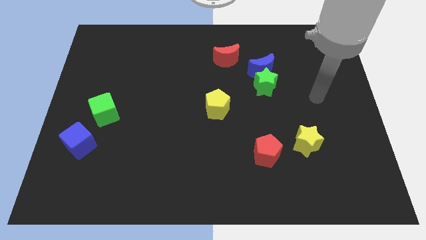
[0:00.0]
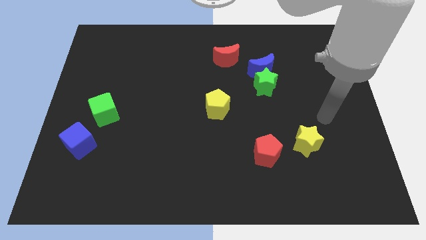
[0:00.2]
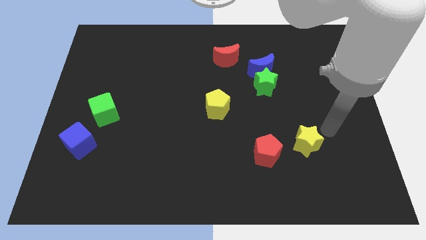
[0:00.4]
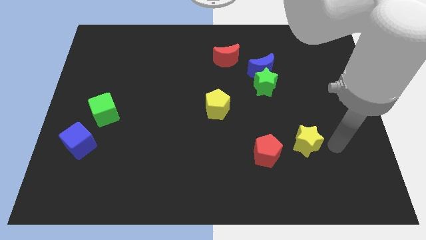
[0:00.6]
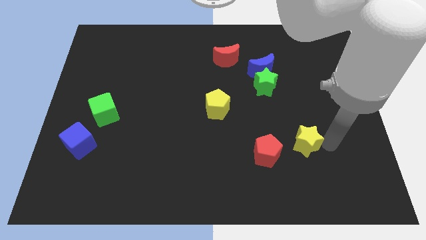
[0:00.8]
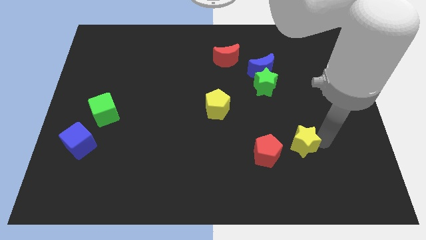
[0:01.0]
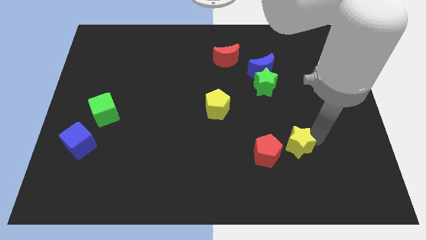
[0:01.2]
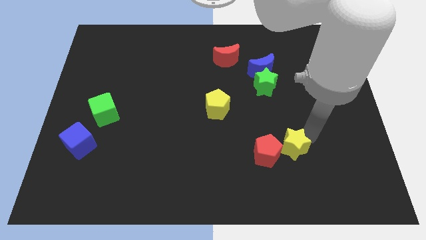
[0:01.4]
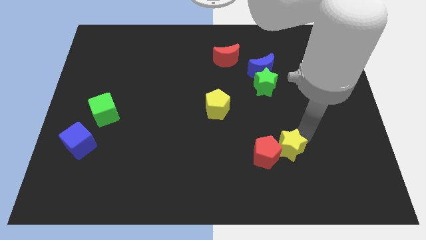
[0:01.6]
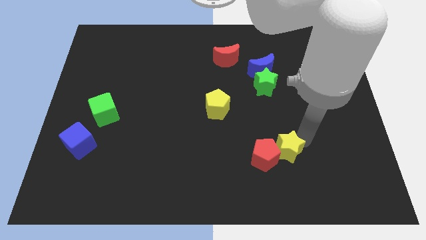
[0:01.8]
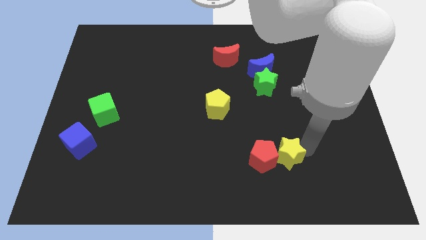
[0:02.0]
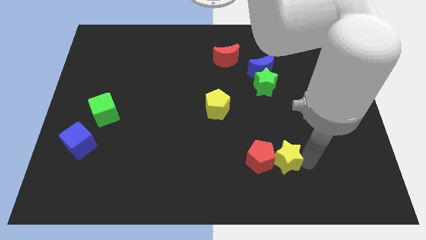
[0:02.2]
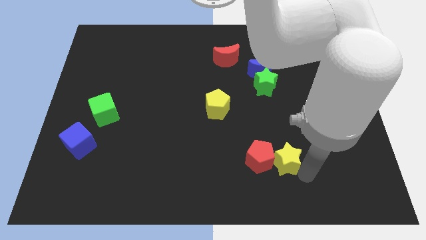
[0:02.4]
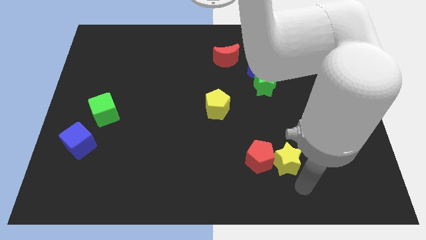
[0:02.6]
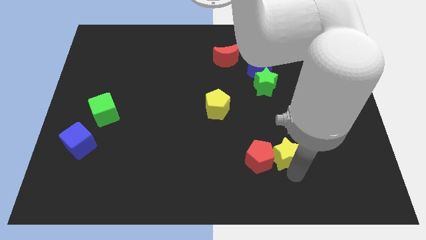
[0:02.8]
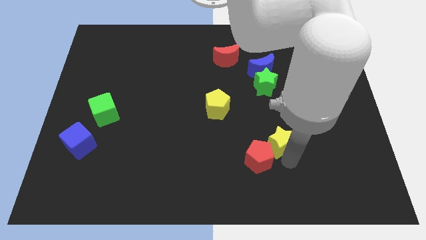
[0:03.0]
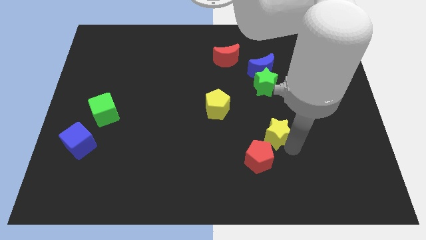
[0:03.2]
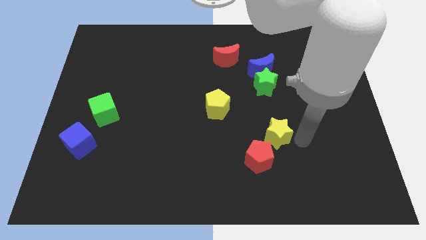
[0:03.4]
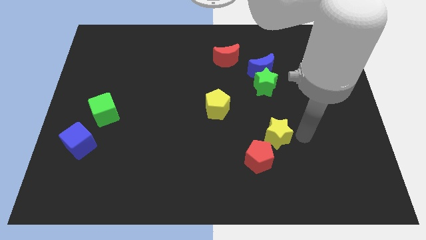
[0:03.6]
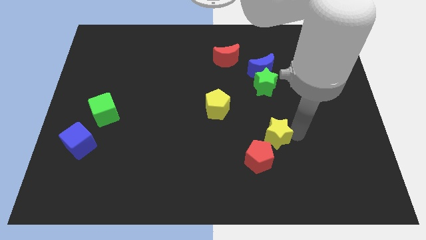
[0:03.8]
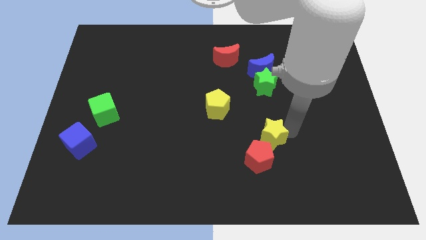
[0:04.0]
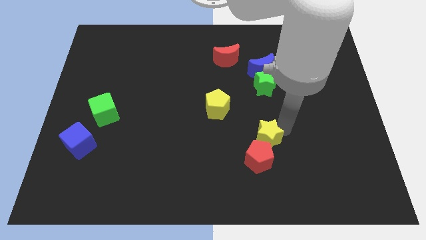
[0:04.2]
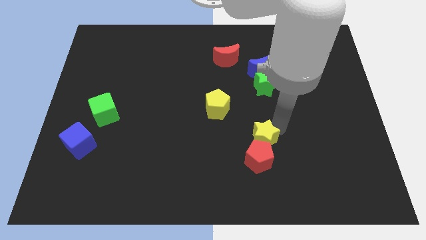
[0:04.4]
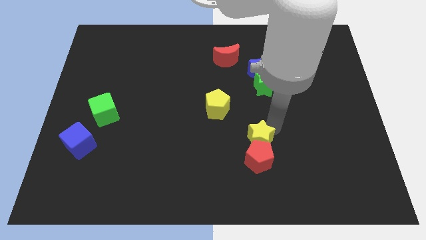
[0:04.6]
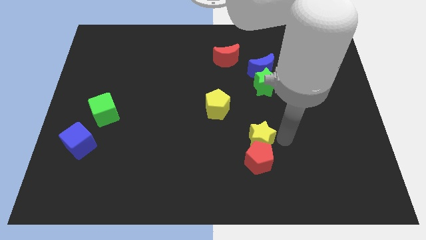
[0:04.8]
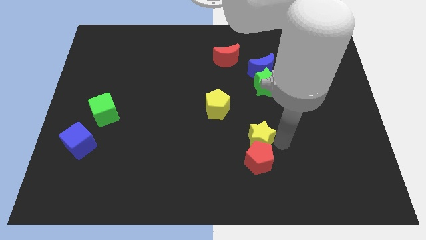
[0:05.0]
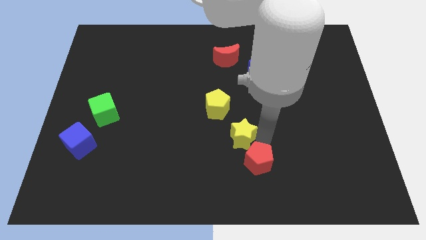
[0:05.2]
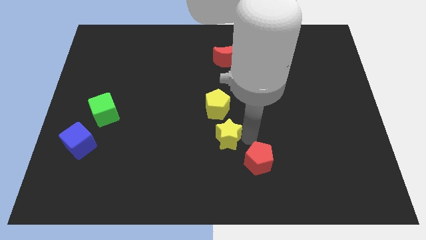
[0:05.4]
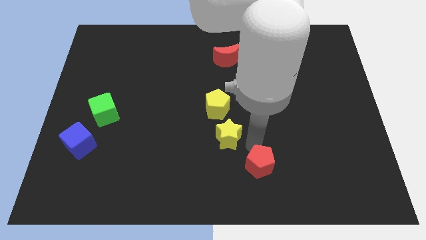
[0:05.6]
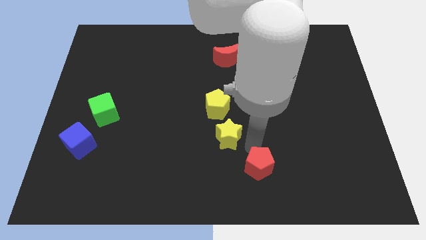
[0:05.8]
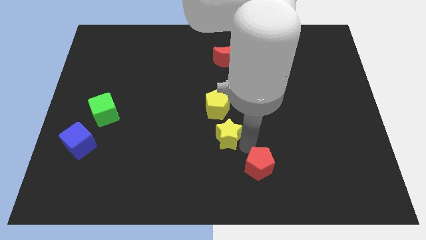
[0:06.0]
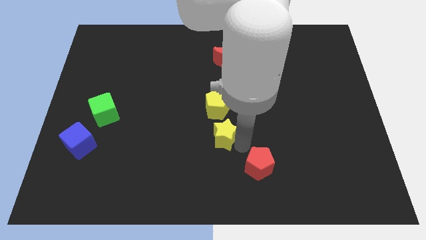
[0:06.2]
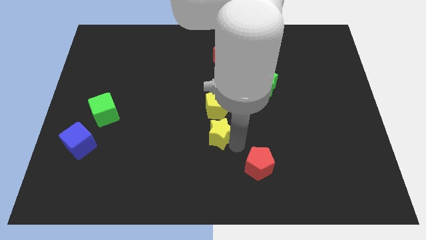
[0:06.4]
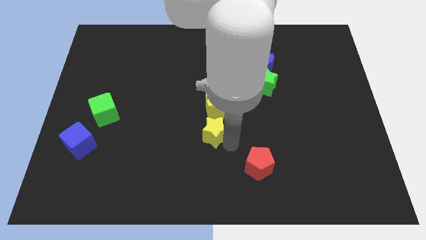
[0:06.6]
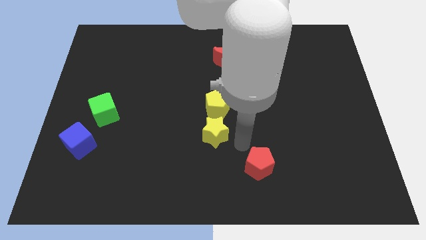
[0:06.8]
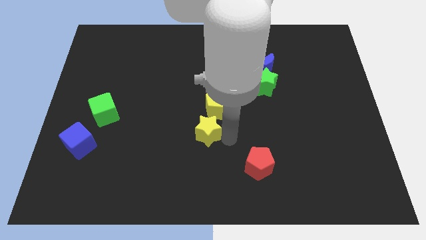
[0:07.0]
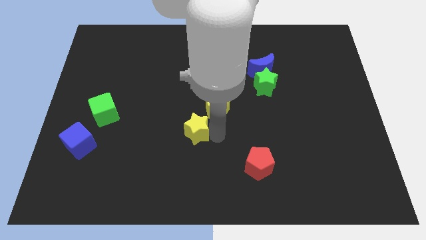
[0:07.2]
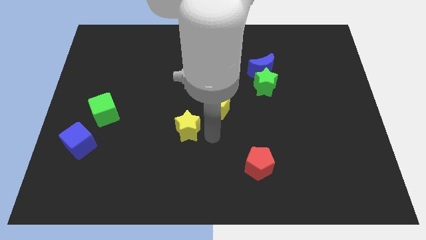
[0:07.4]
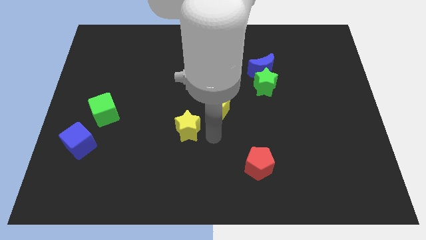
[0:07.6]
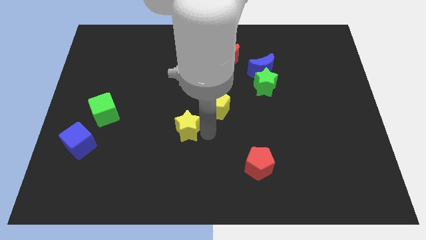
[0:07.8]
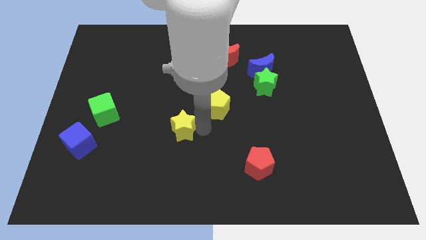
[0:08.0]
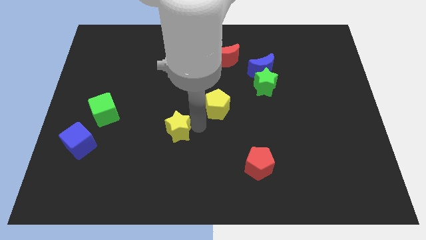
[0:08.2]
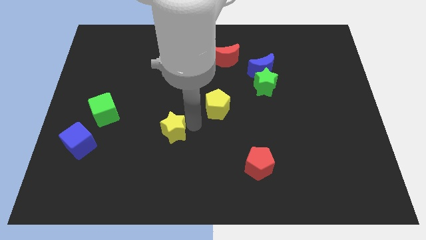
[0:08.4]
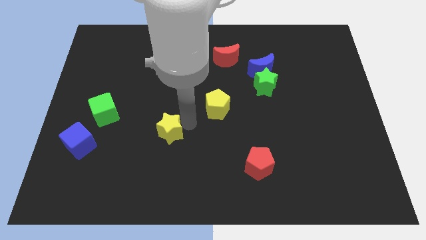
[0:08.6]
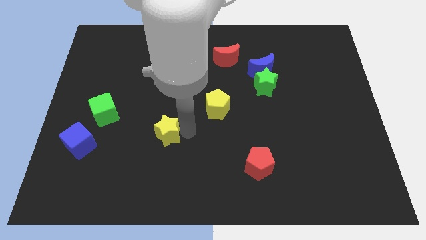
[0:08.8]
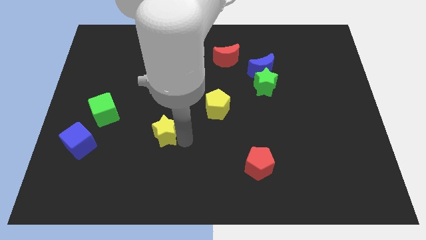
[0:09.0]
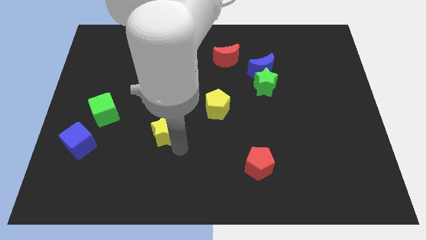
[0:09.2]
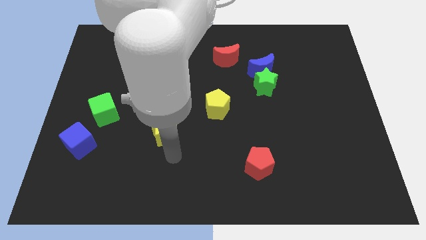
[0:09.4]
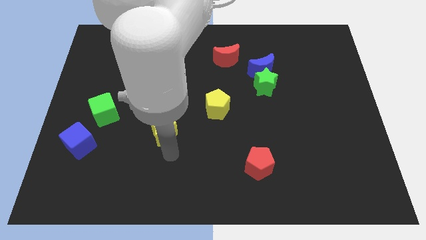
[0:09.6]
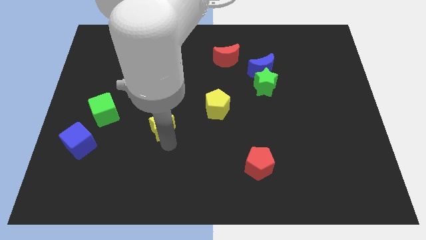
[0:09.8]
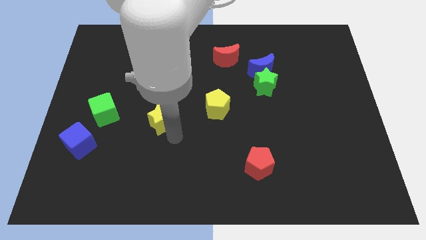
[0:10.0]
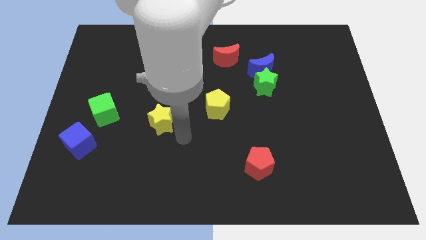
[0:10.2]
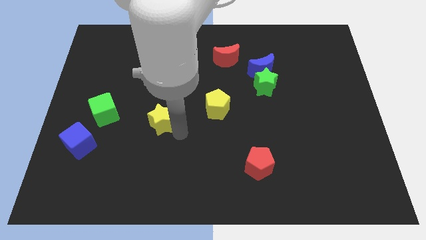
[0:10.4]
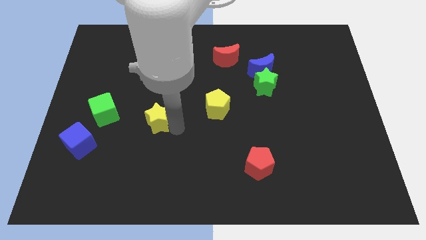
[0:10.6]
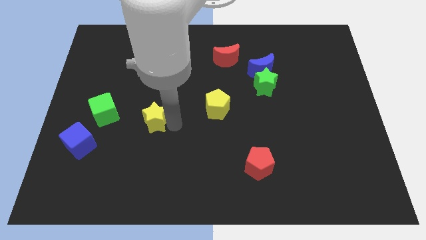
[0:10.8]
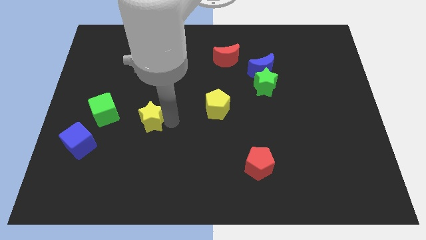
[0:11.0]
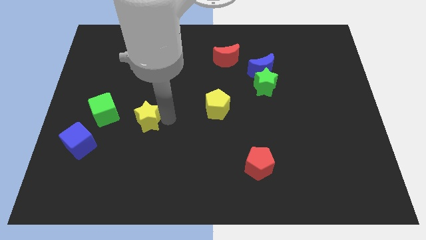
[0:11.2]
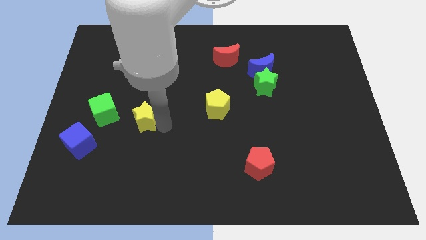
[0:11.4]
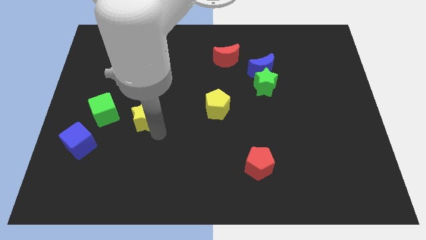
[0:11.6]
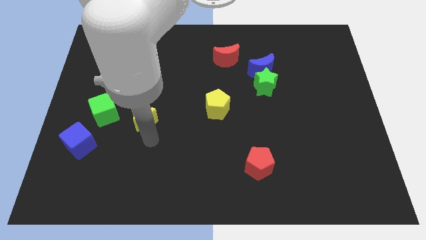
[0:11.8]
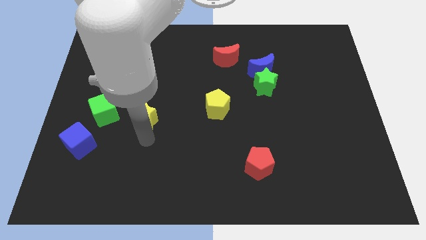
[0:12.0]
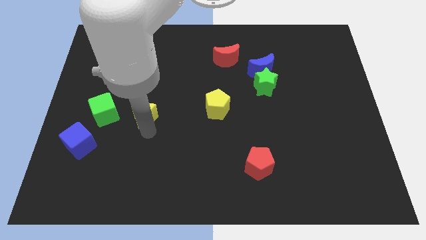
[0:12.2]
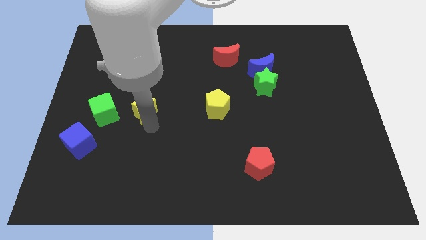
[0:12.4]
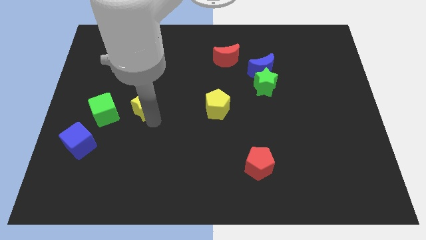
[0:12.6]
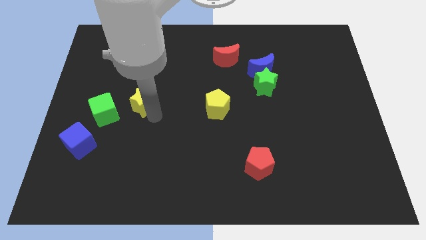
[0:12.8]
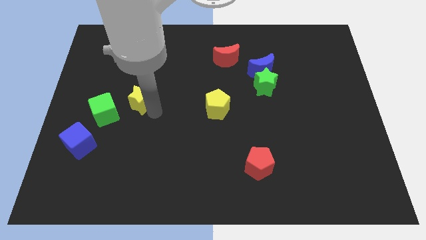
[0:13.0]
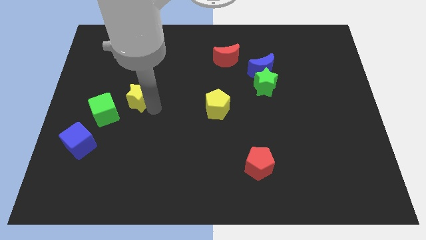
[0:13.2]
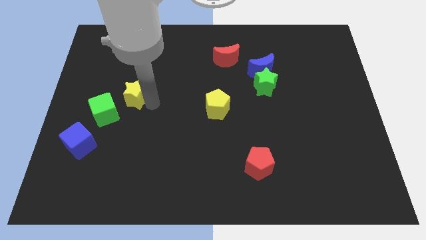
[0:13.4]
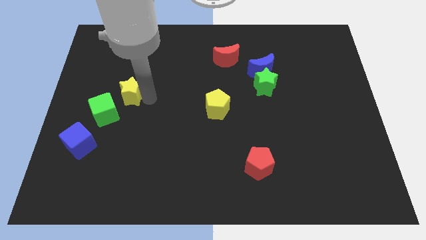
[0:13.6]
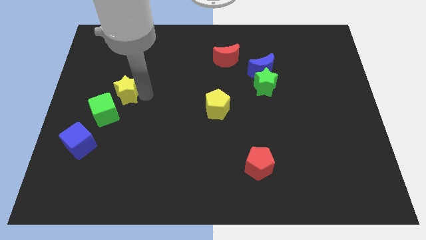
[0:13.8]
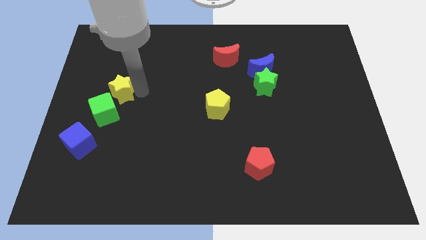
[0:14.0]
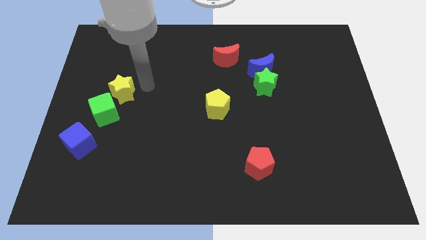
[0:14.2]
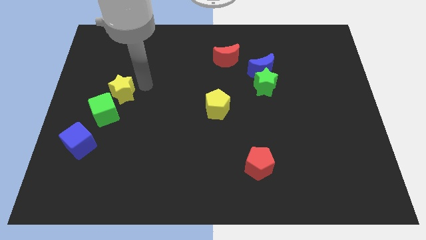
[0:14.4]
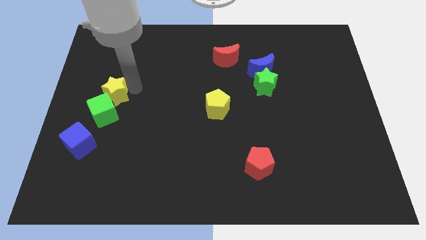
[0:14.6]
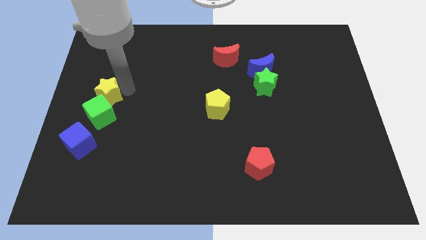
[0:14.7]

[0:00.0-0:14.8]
slide the yellow star to the top of the blue cube
